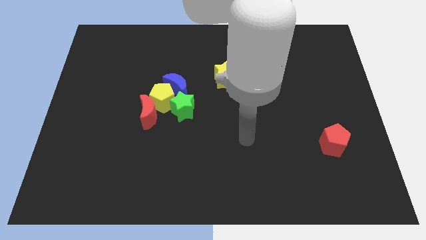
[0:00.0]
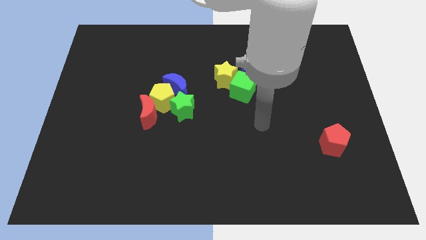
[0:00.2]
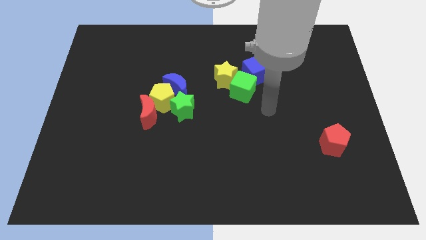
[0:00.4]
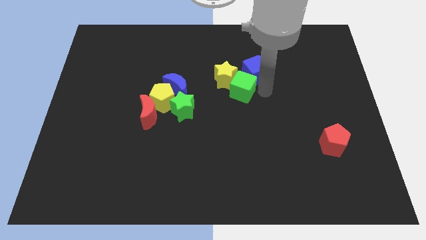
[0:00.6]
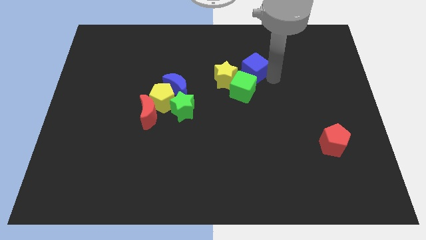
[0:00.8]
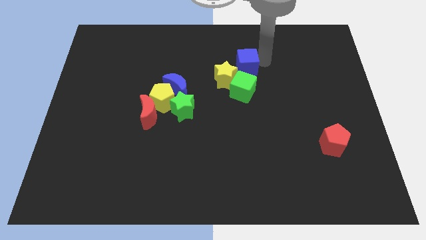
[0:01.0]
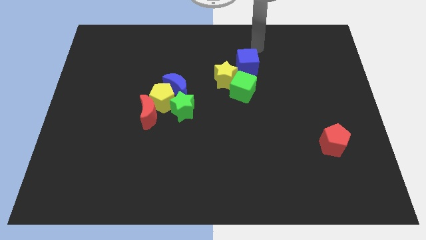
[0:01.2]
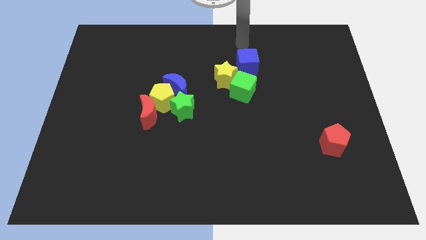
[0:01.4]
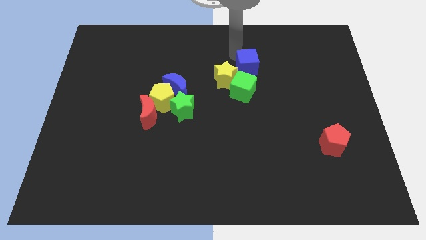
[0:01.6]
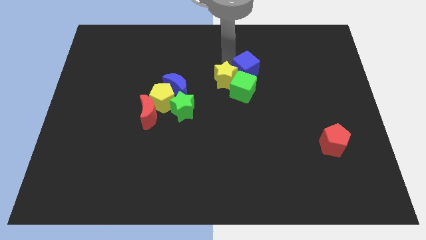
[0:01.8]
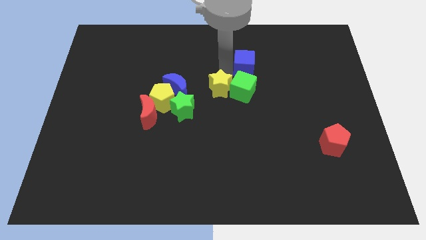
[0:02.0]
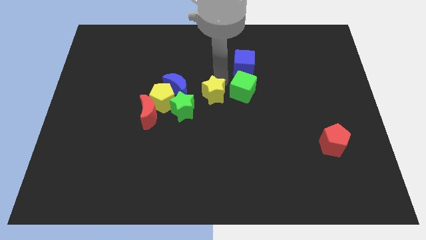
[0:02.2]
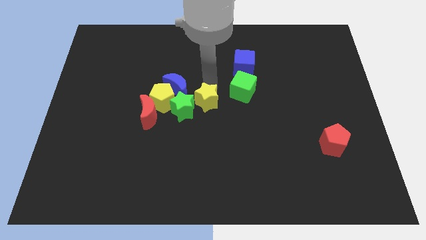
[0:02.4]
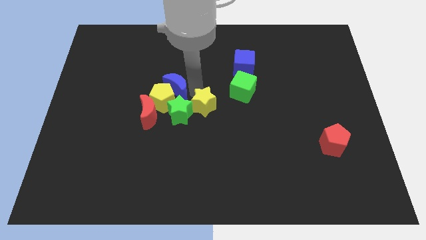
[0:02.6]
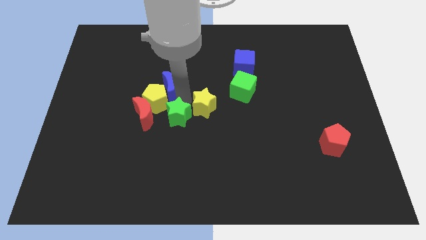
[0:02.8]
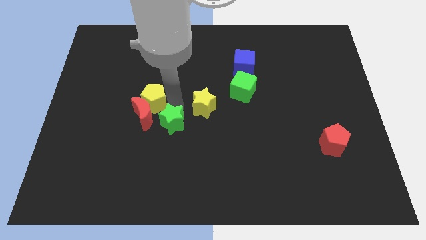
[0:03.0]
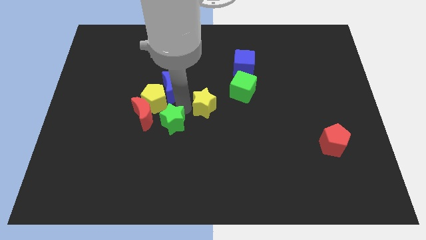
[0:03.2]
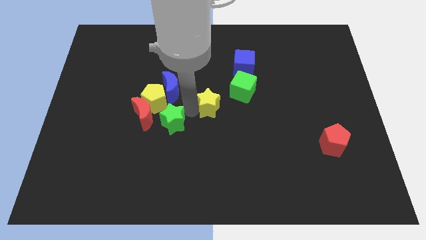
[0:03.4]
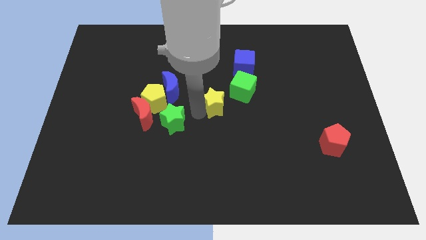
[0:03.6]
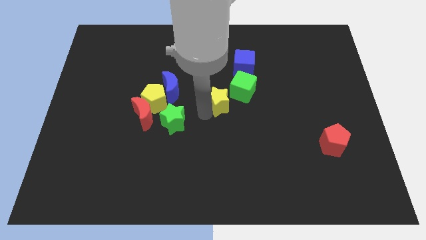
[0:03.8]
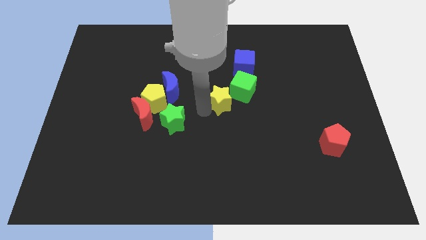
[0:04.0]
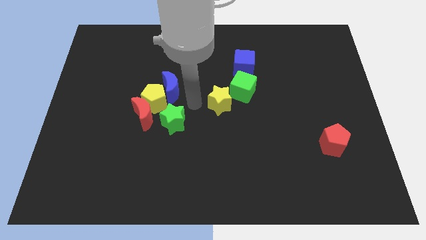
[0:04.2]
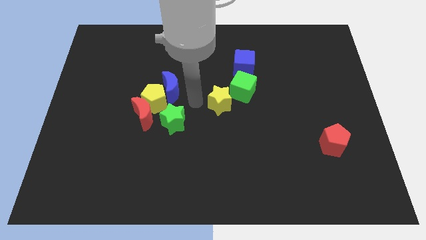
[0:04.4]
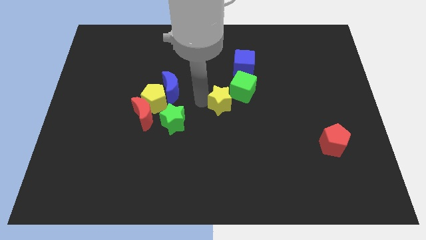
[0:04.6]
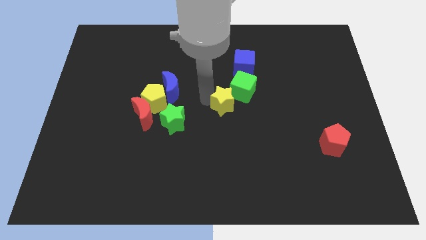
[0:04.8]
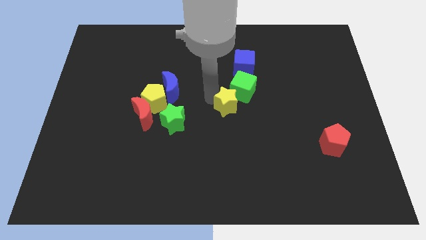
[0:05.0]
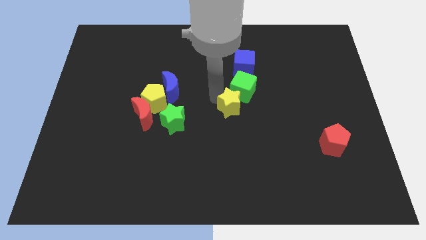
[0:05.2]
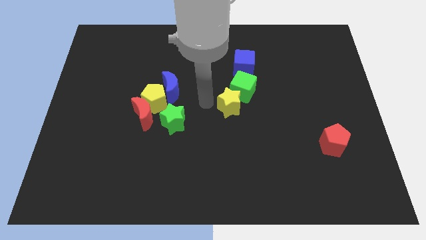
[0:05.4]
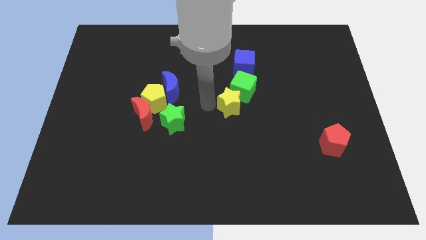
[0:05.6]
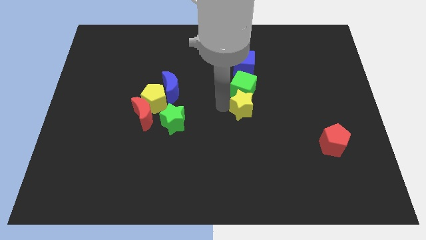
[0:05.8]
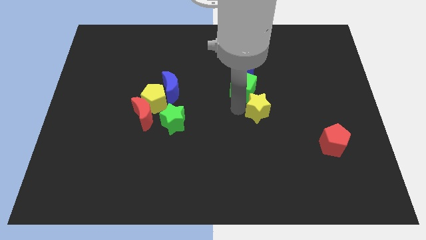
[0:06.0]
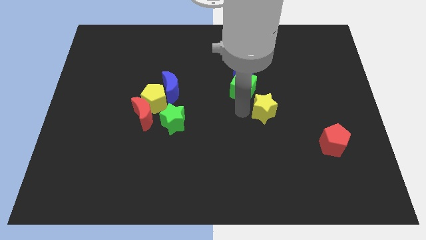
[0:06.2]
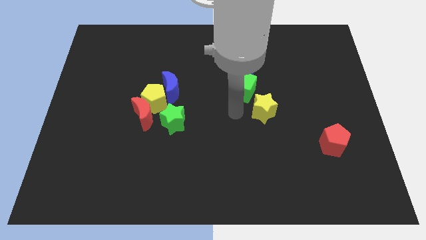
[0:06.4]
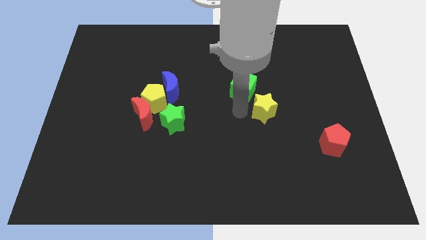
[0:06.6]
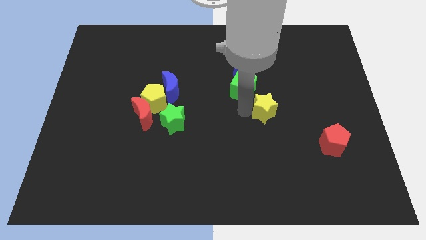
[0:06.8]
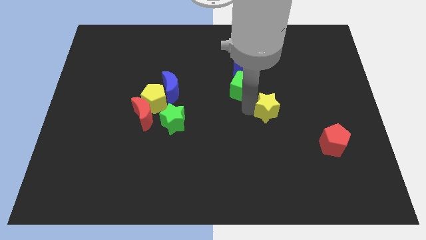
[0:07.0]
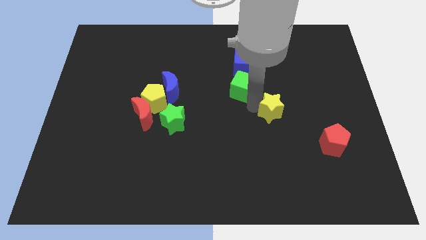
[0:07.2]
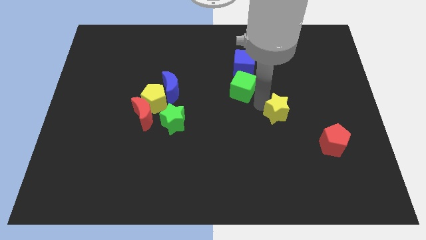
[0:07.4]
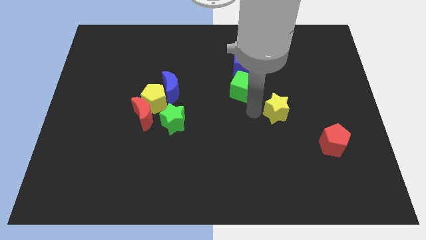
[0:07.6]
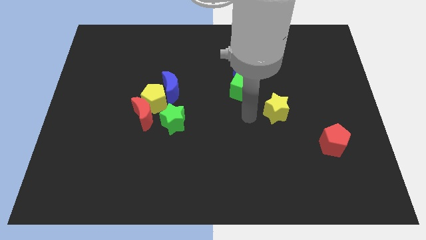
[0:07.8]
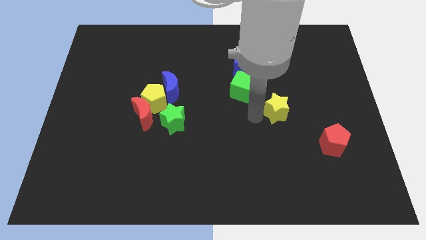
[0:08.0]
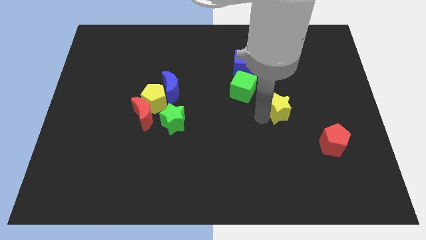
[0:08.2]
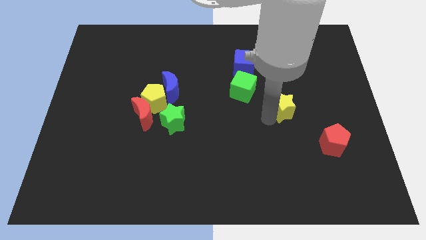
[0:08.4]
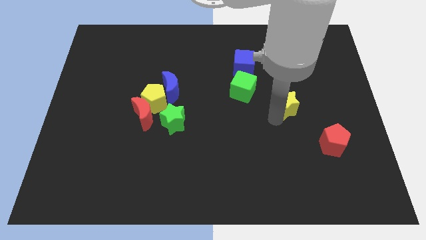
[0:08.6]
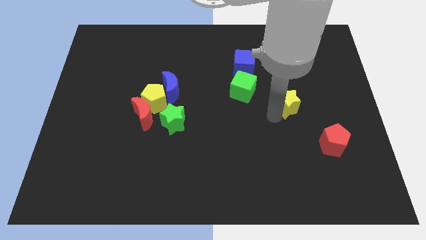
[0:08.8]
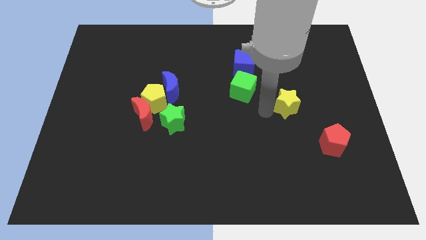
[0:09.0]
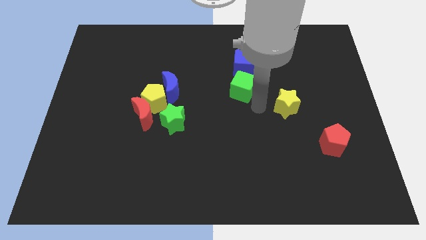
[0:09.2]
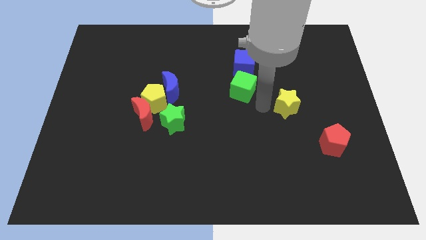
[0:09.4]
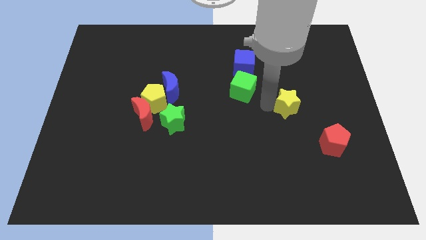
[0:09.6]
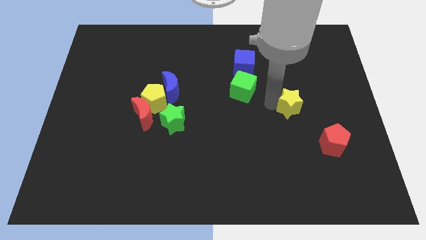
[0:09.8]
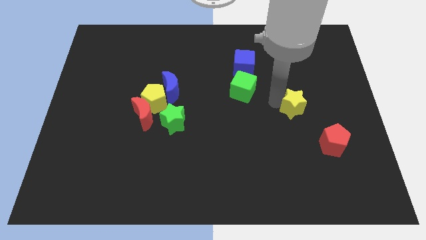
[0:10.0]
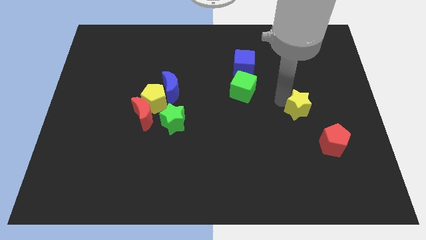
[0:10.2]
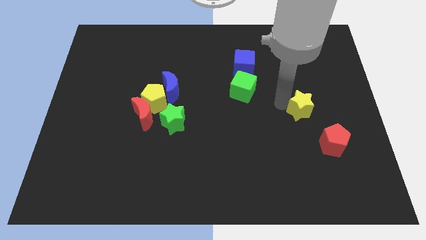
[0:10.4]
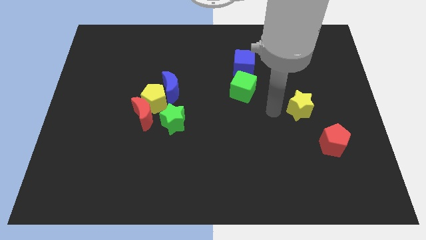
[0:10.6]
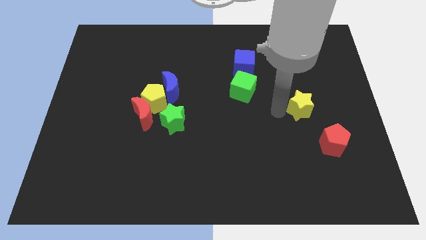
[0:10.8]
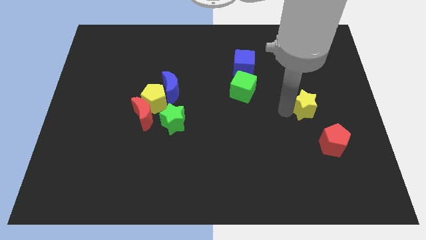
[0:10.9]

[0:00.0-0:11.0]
slide the yellow star to the top side of the red pentagon
